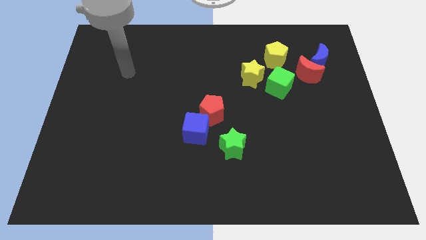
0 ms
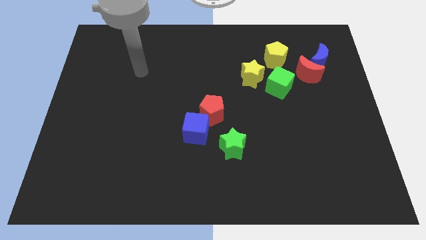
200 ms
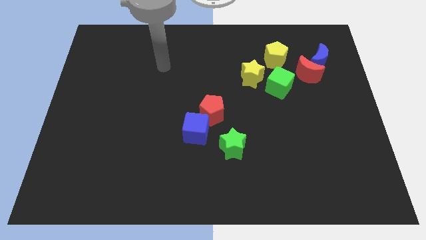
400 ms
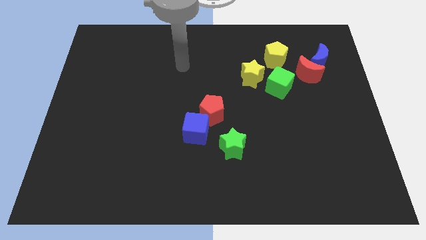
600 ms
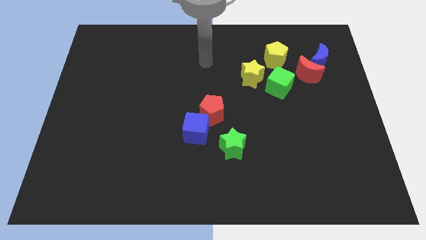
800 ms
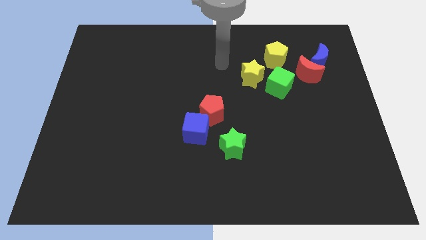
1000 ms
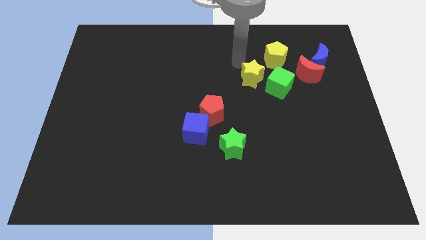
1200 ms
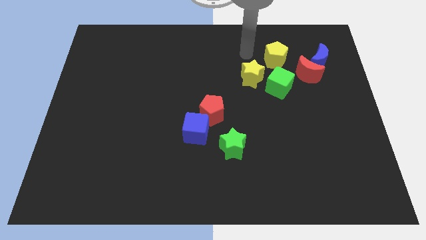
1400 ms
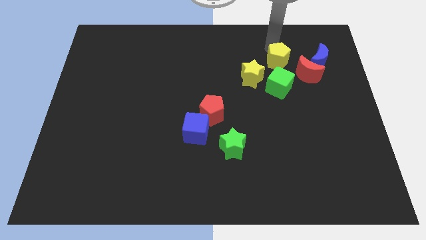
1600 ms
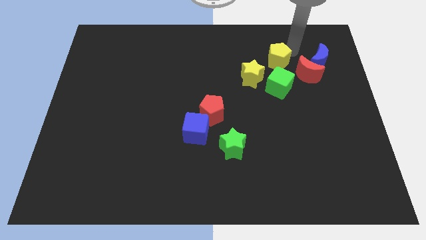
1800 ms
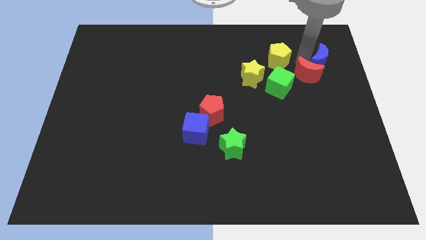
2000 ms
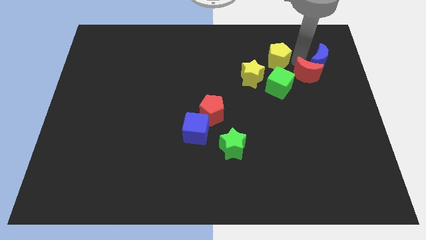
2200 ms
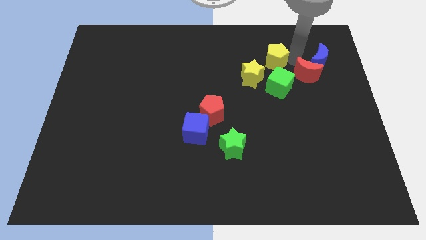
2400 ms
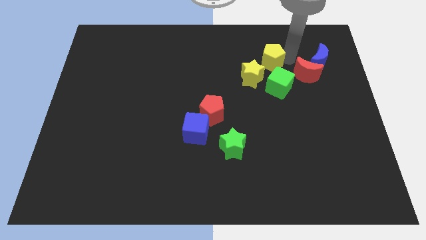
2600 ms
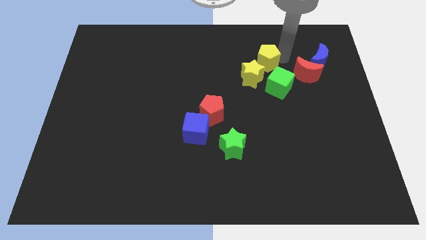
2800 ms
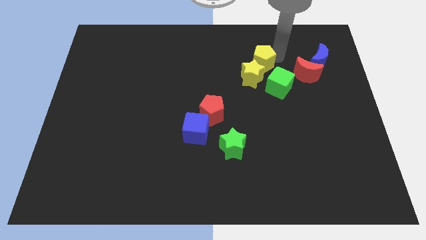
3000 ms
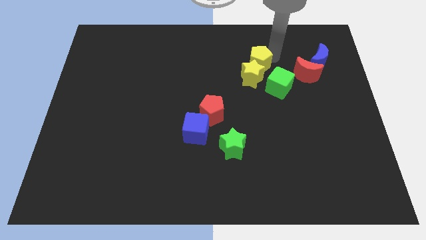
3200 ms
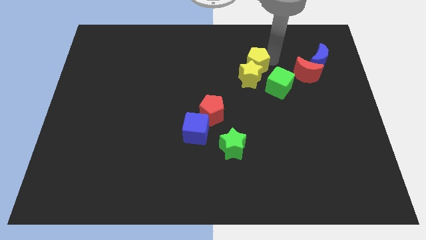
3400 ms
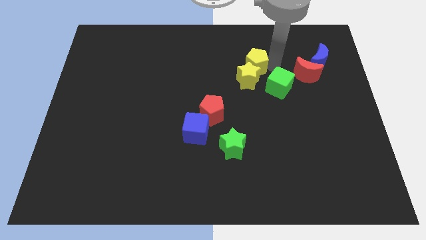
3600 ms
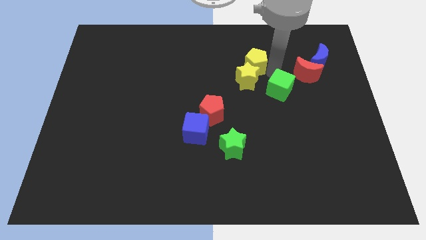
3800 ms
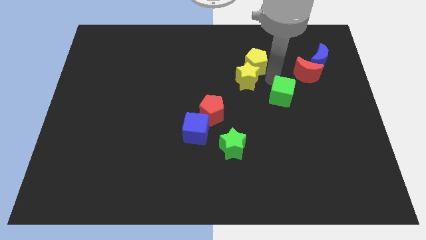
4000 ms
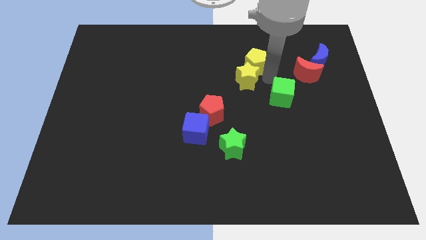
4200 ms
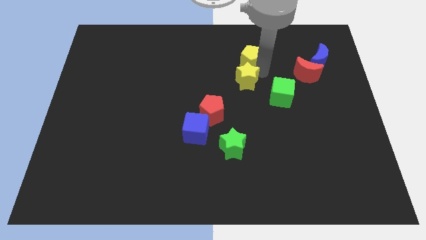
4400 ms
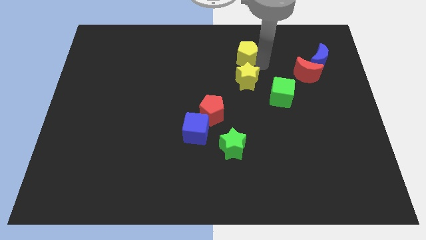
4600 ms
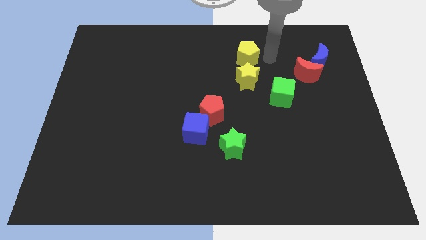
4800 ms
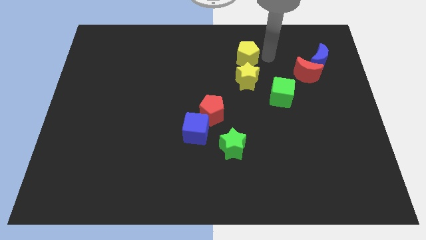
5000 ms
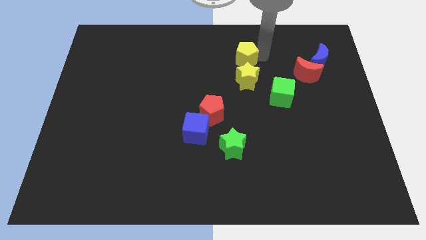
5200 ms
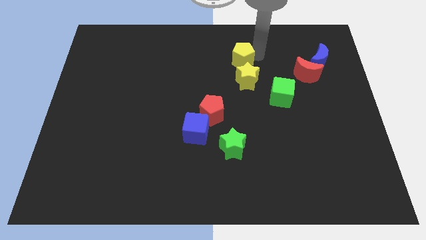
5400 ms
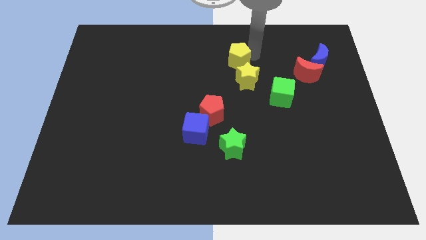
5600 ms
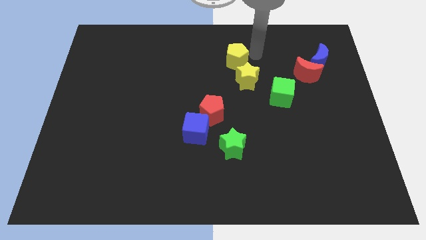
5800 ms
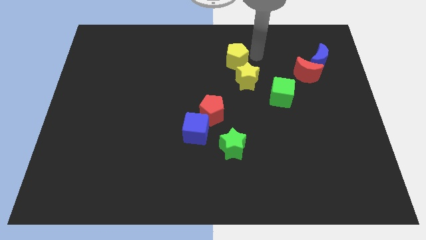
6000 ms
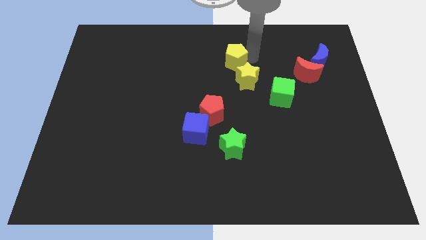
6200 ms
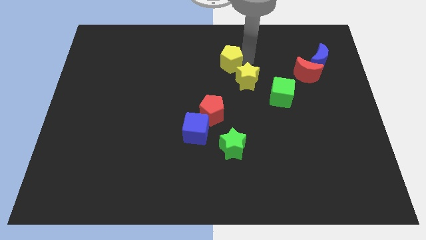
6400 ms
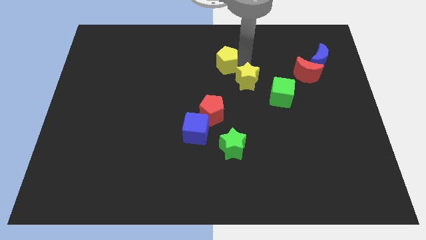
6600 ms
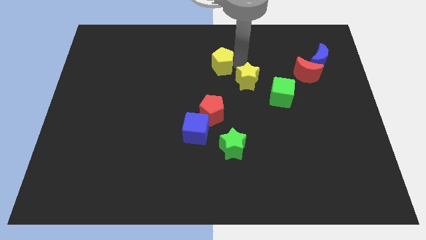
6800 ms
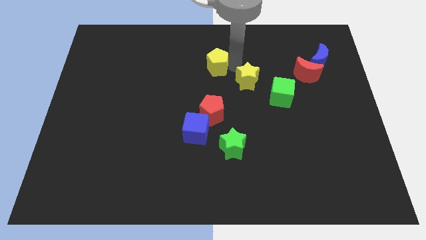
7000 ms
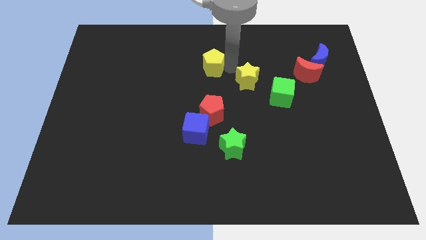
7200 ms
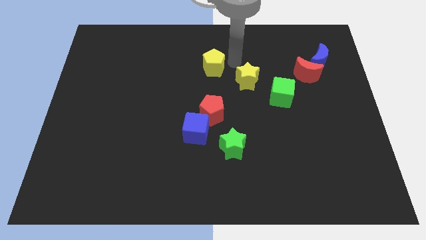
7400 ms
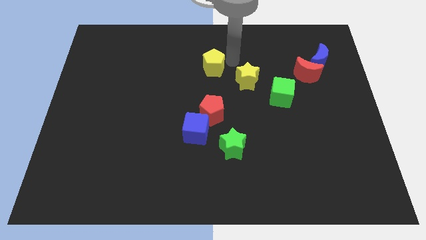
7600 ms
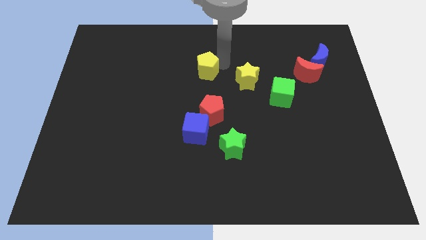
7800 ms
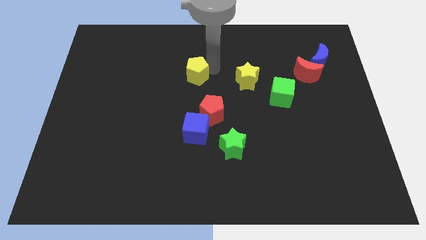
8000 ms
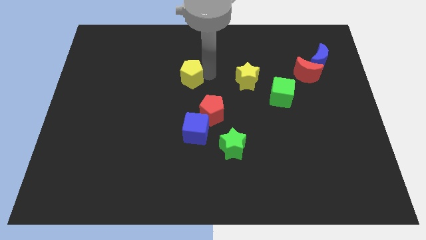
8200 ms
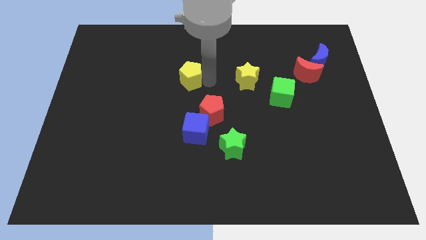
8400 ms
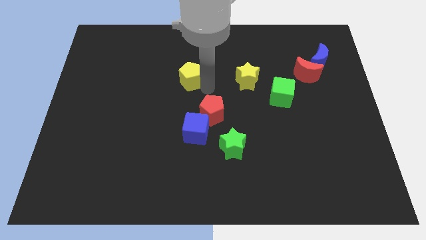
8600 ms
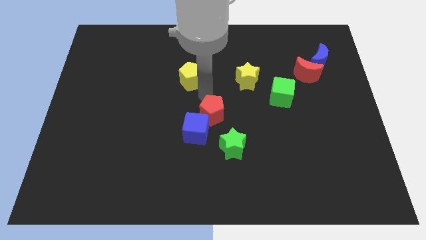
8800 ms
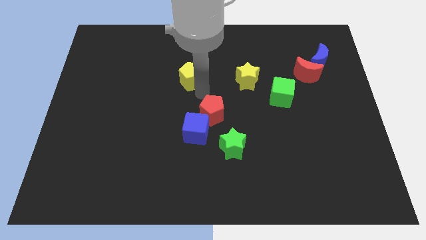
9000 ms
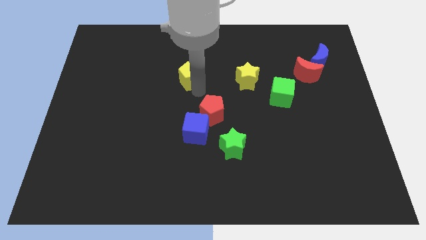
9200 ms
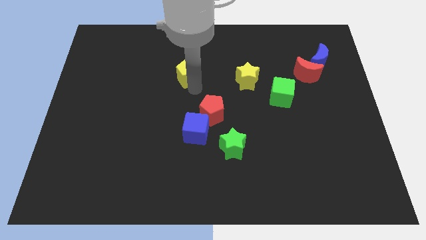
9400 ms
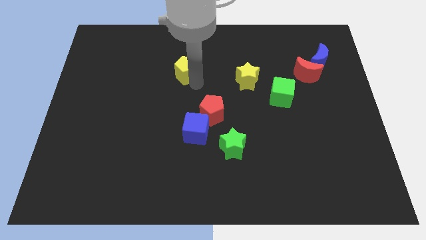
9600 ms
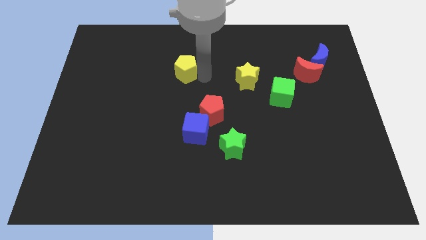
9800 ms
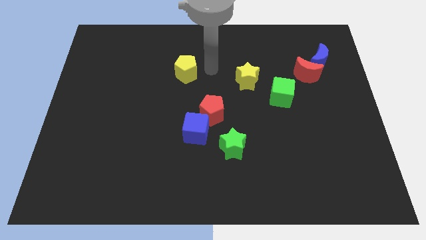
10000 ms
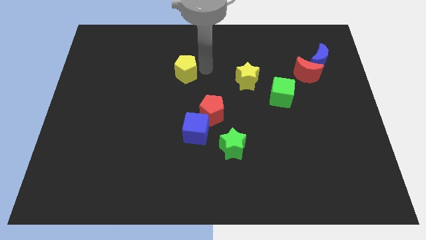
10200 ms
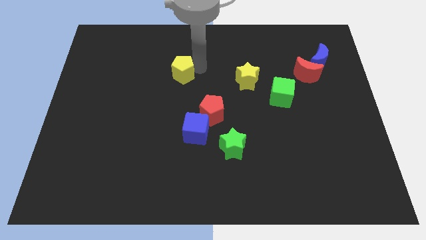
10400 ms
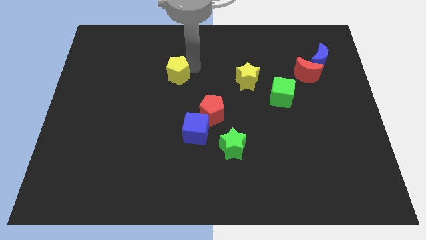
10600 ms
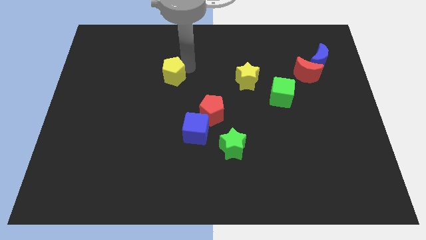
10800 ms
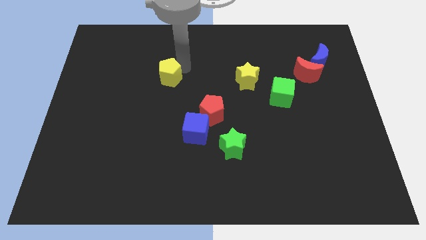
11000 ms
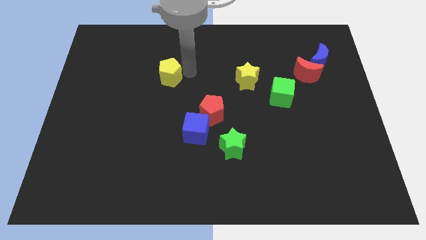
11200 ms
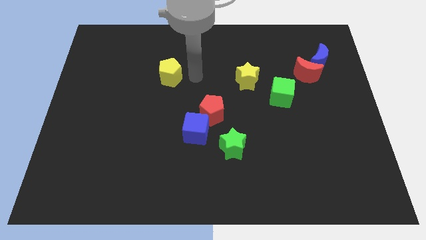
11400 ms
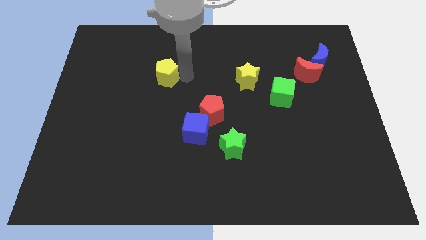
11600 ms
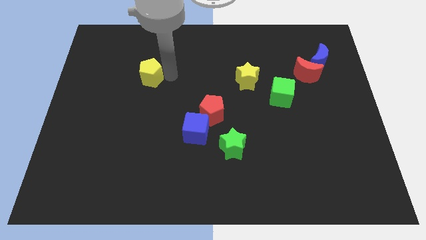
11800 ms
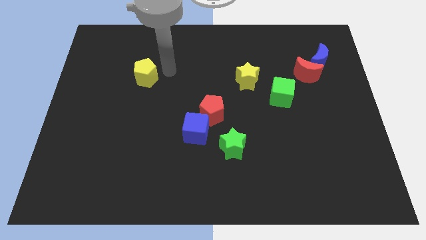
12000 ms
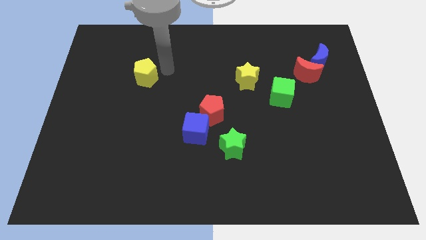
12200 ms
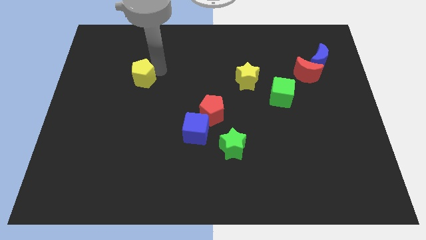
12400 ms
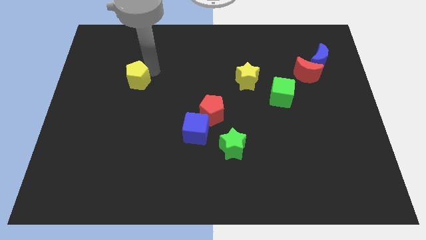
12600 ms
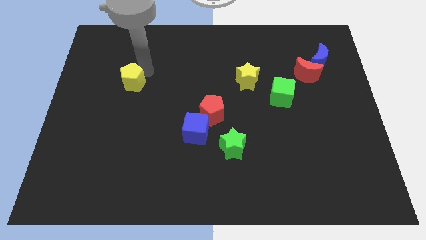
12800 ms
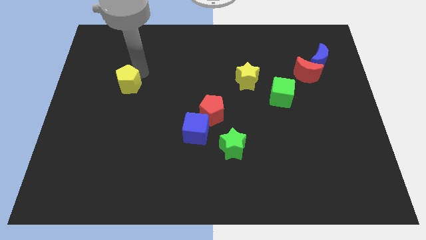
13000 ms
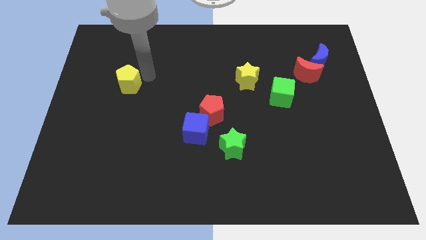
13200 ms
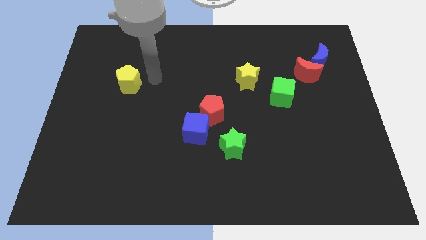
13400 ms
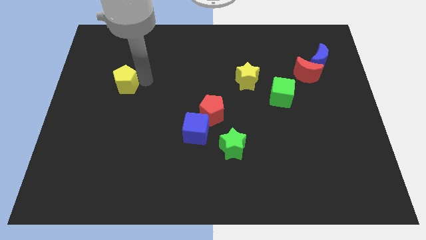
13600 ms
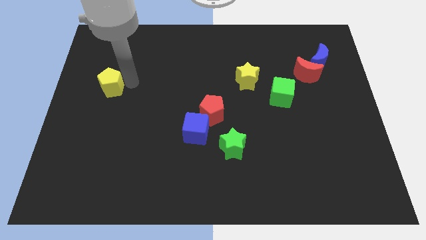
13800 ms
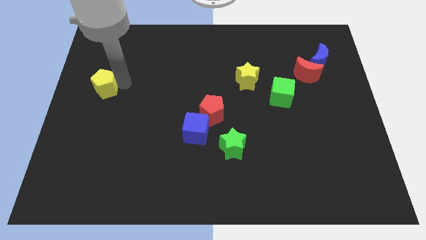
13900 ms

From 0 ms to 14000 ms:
slide the yellow pentagon to the left side of the board
